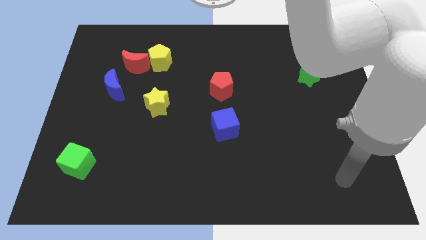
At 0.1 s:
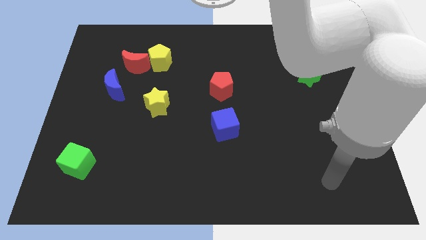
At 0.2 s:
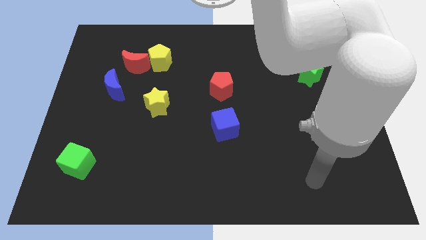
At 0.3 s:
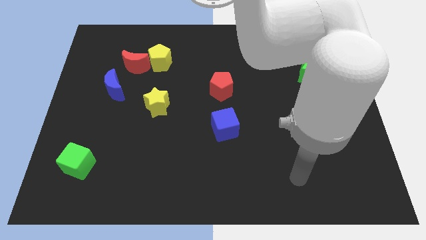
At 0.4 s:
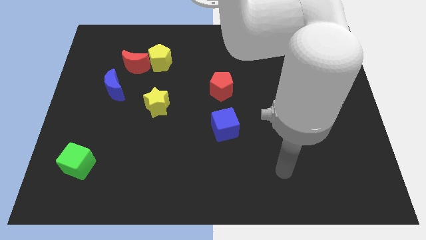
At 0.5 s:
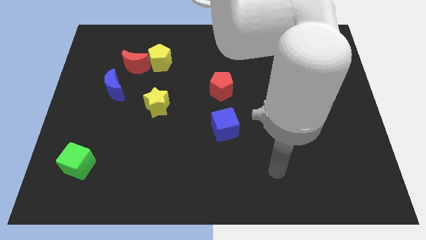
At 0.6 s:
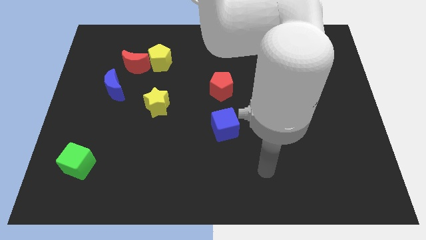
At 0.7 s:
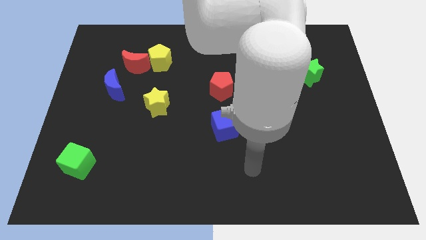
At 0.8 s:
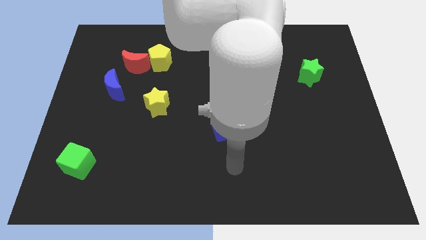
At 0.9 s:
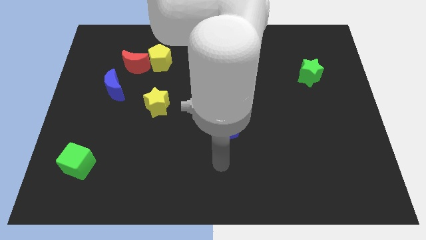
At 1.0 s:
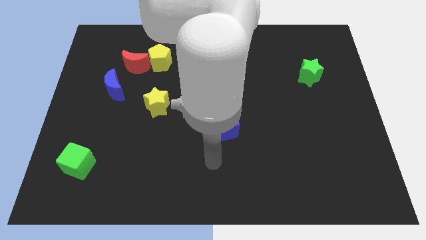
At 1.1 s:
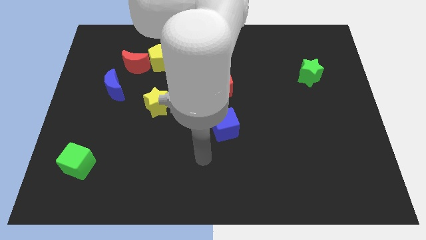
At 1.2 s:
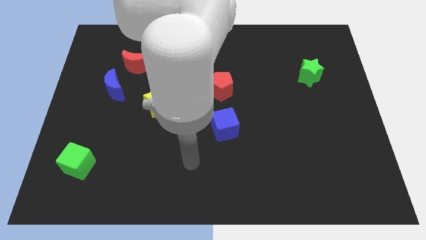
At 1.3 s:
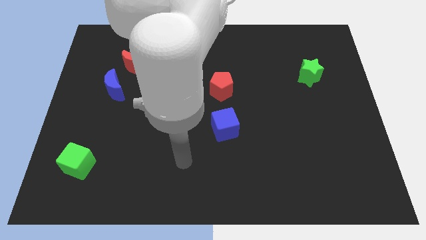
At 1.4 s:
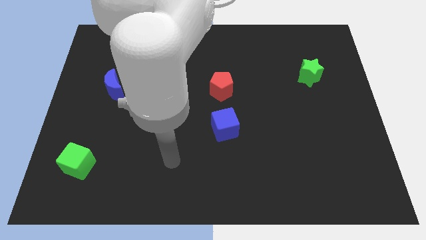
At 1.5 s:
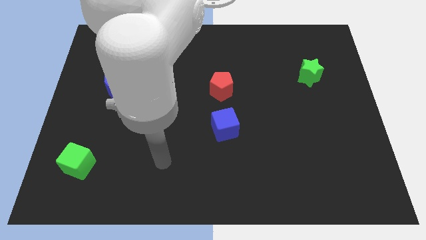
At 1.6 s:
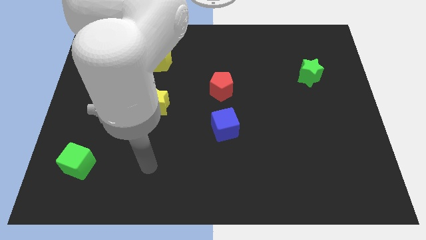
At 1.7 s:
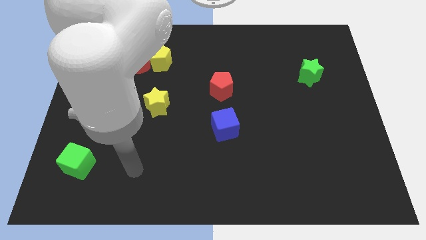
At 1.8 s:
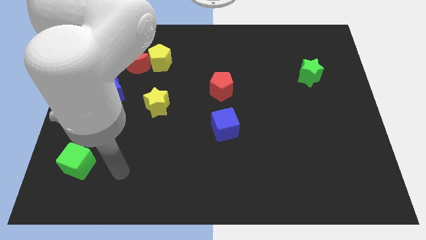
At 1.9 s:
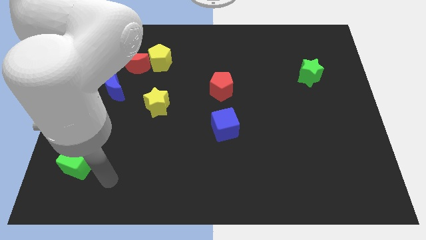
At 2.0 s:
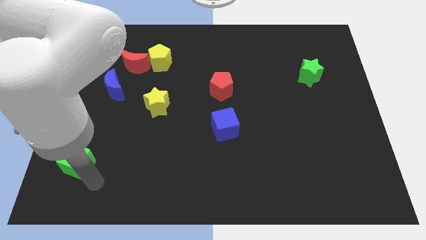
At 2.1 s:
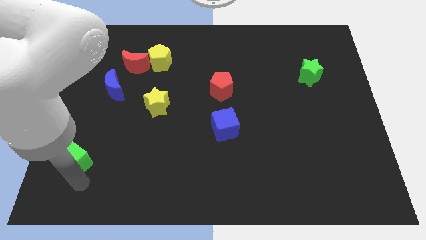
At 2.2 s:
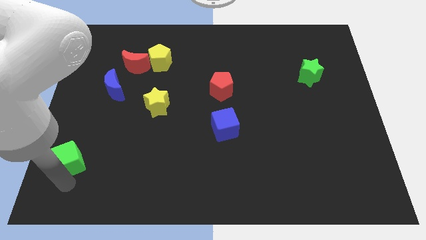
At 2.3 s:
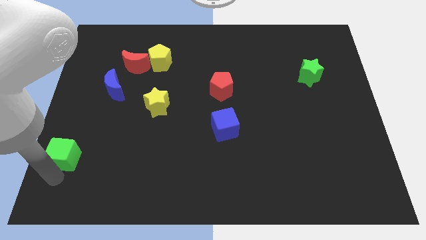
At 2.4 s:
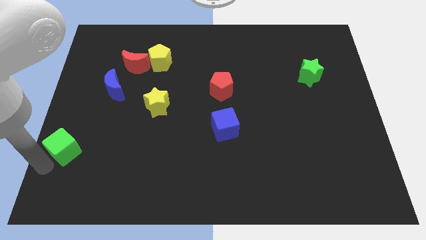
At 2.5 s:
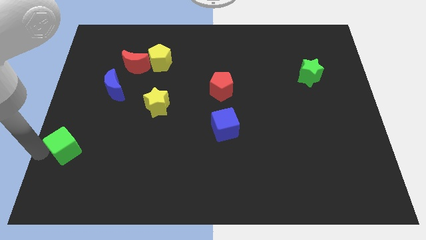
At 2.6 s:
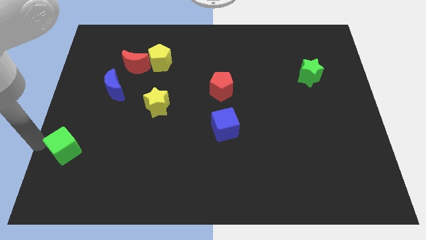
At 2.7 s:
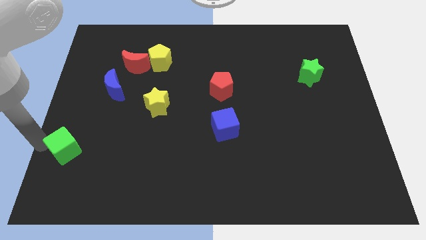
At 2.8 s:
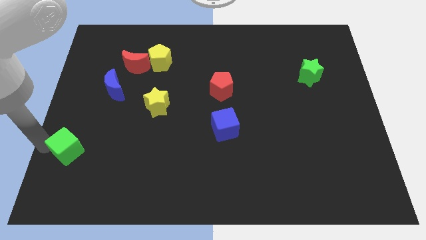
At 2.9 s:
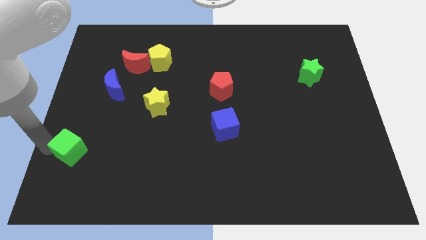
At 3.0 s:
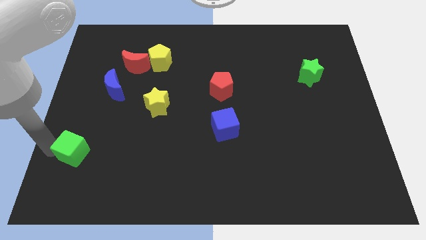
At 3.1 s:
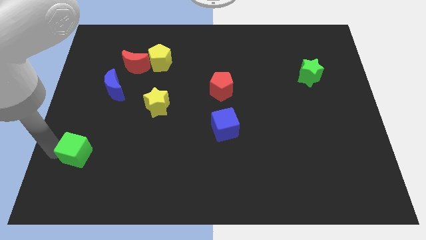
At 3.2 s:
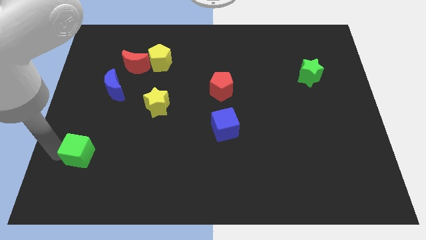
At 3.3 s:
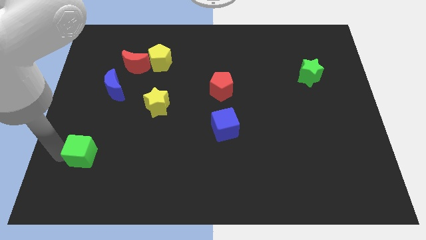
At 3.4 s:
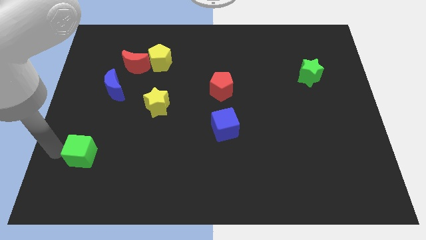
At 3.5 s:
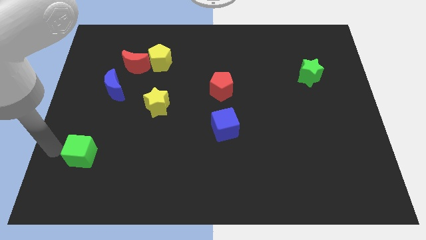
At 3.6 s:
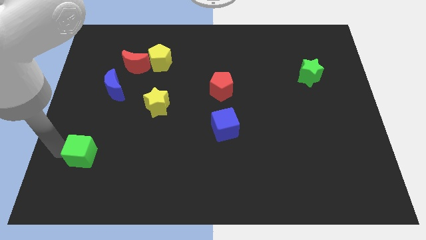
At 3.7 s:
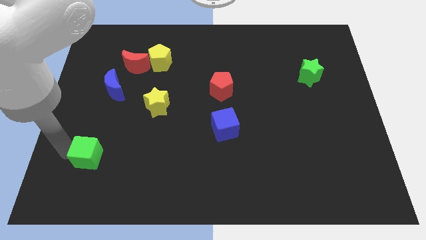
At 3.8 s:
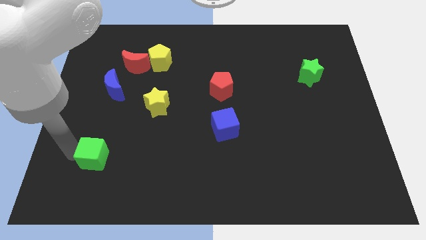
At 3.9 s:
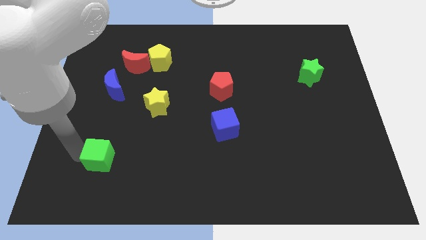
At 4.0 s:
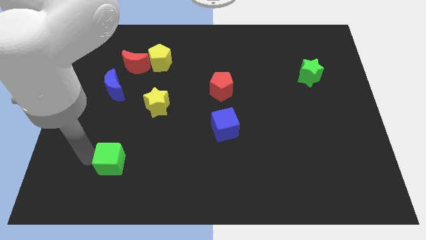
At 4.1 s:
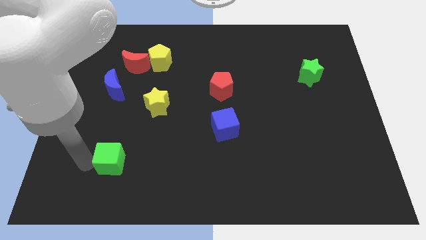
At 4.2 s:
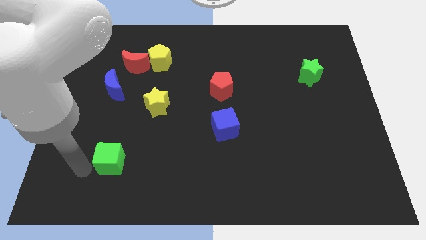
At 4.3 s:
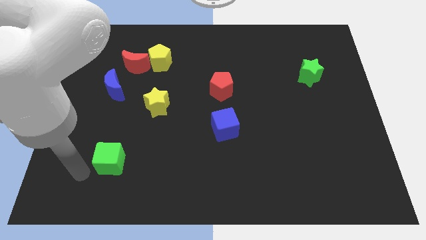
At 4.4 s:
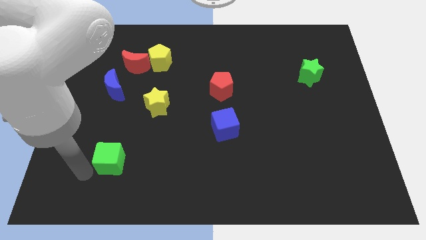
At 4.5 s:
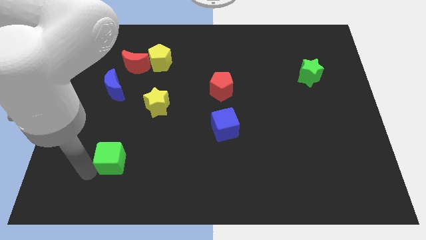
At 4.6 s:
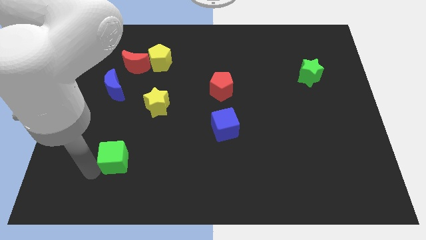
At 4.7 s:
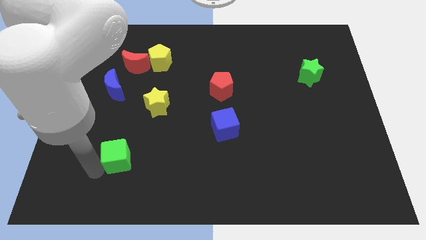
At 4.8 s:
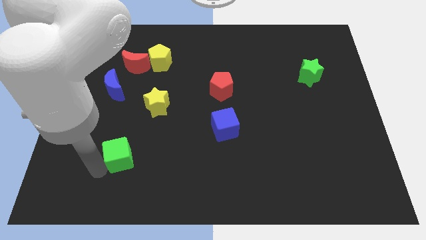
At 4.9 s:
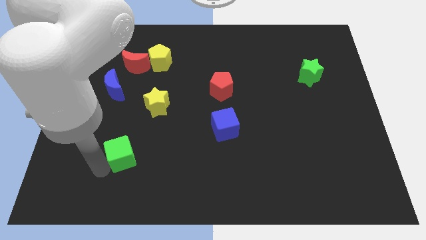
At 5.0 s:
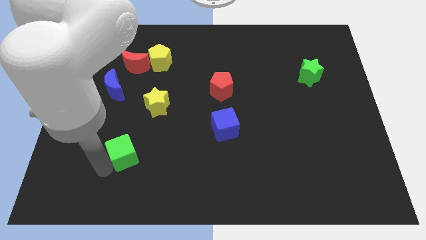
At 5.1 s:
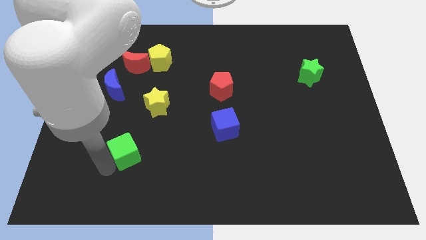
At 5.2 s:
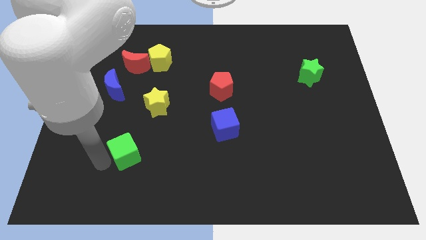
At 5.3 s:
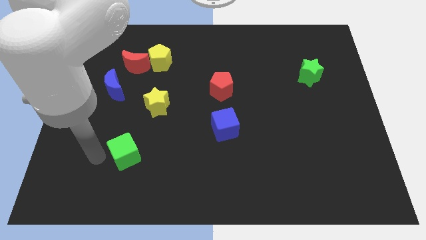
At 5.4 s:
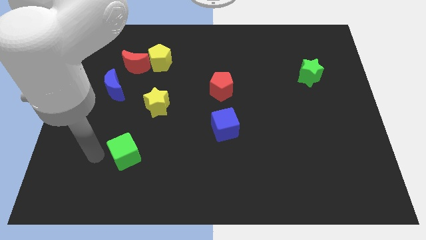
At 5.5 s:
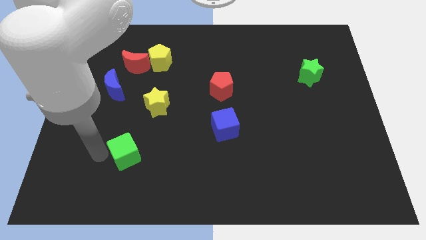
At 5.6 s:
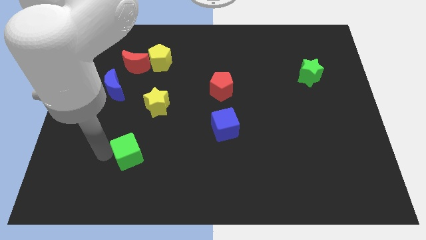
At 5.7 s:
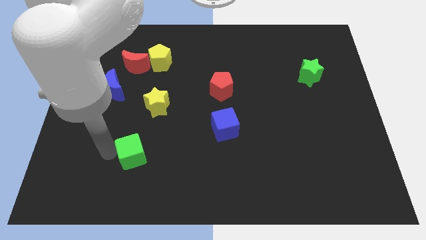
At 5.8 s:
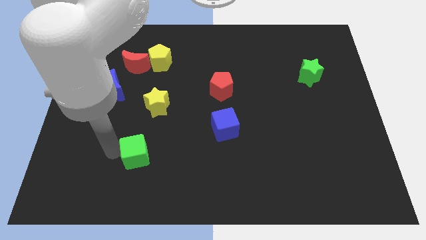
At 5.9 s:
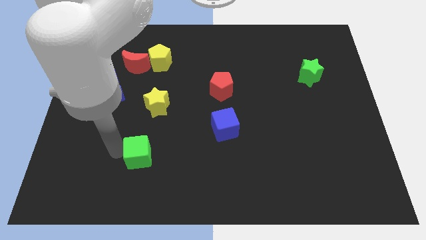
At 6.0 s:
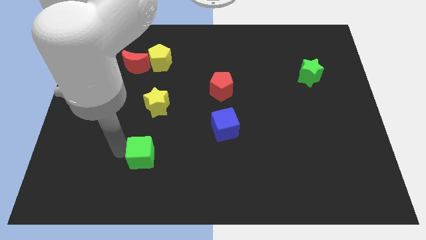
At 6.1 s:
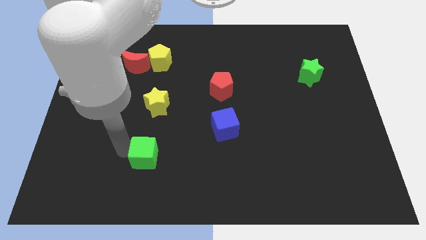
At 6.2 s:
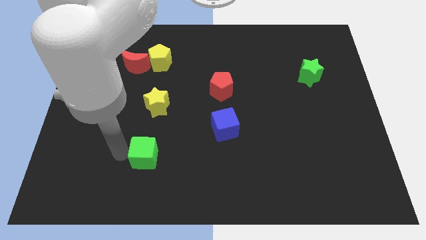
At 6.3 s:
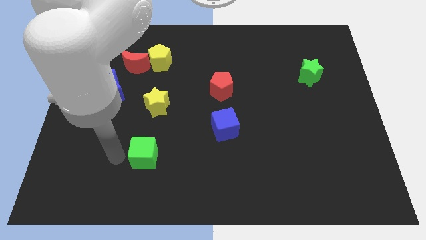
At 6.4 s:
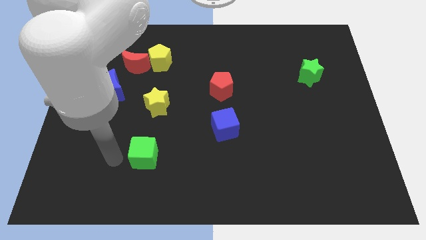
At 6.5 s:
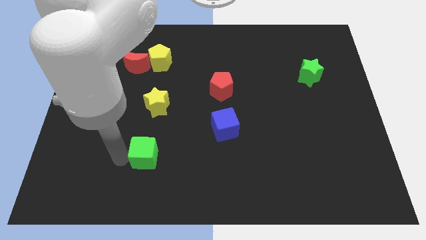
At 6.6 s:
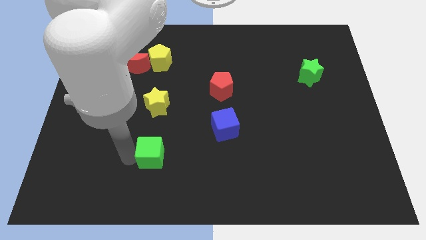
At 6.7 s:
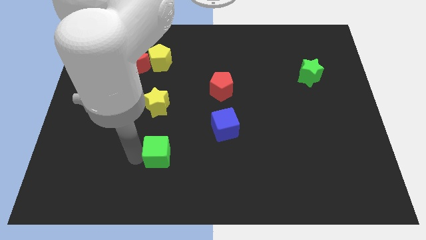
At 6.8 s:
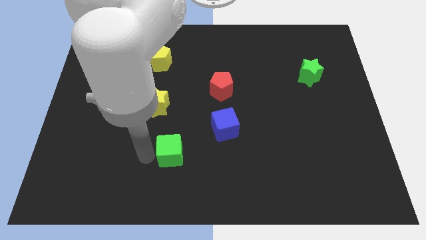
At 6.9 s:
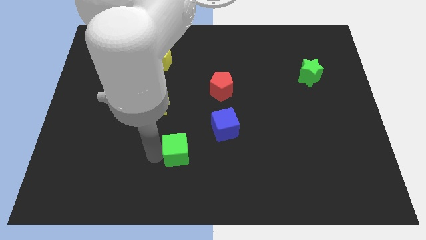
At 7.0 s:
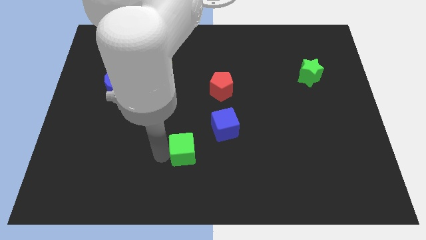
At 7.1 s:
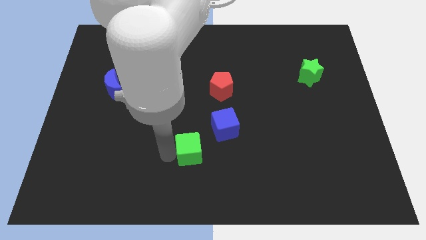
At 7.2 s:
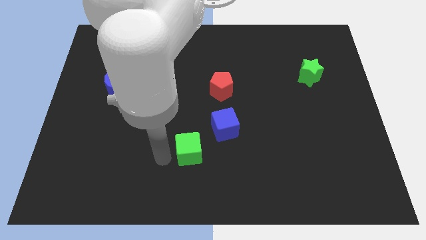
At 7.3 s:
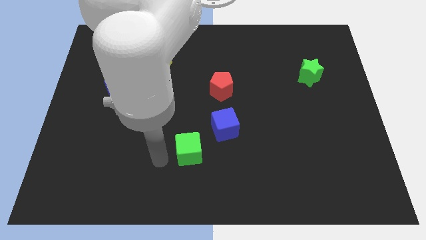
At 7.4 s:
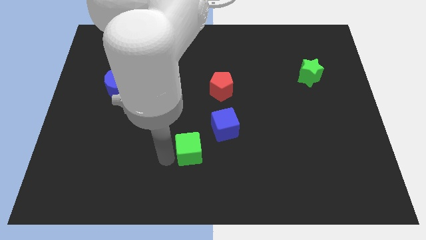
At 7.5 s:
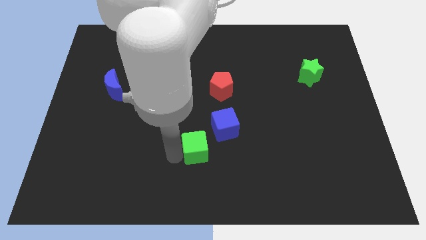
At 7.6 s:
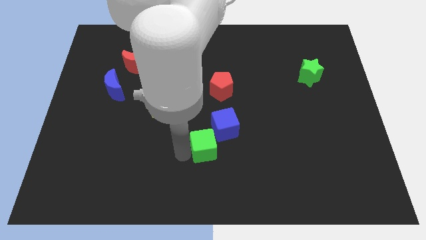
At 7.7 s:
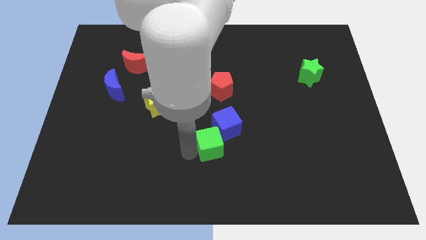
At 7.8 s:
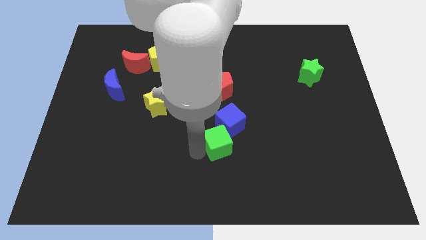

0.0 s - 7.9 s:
put the green cube to the bottom of the red pentagon
